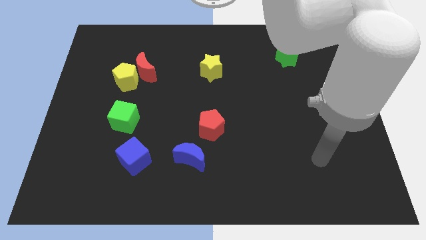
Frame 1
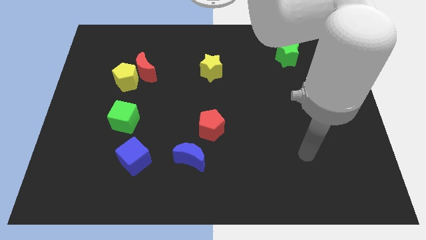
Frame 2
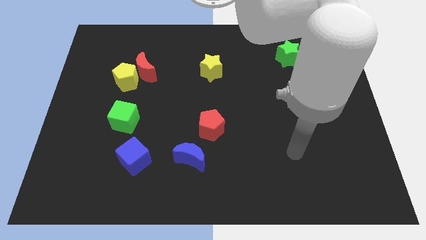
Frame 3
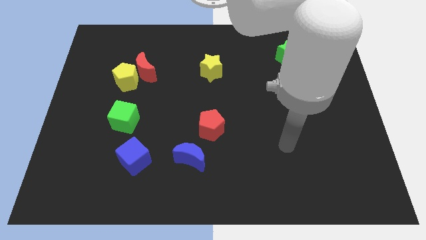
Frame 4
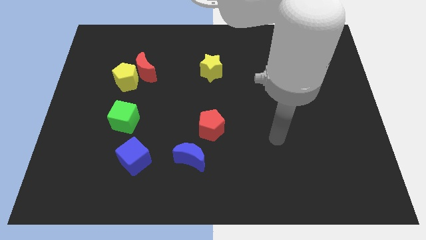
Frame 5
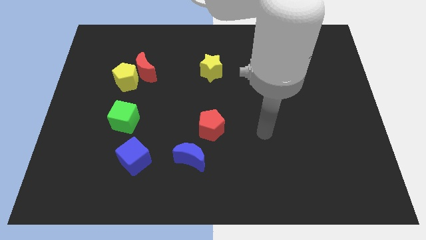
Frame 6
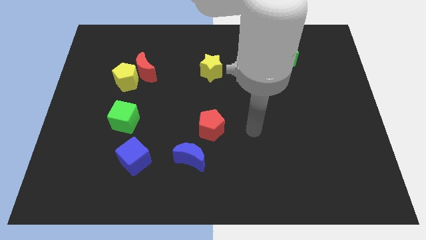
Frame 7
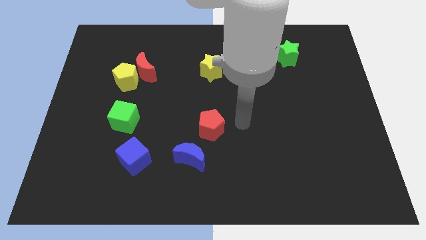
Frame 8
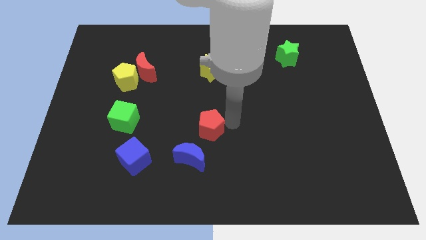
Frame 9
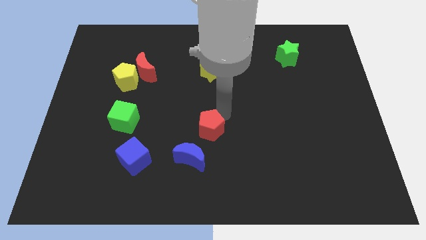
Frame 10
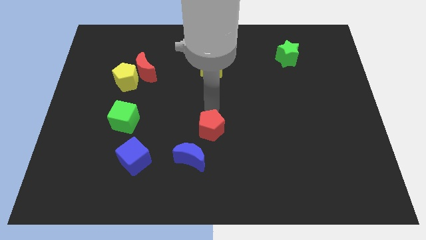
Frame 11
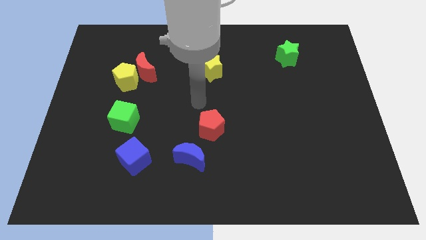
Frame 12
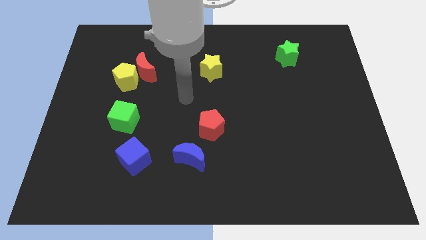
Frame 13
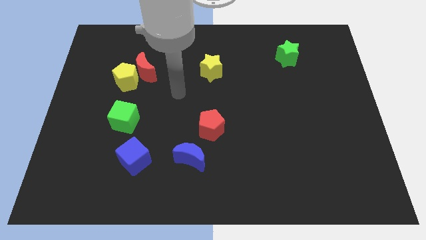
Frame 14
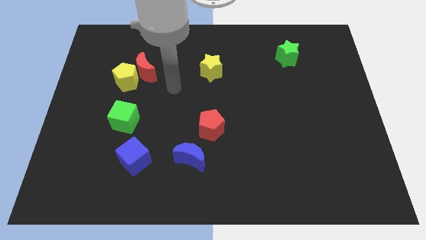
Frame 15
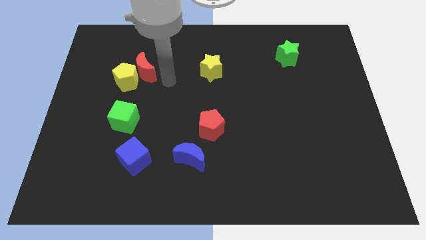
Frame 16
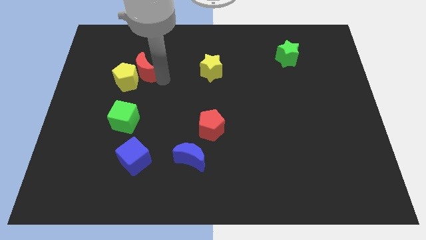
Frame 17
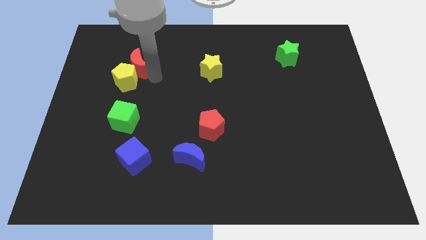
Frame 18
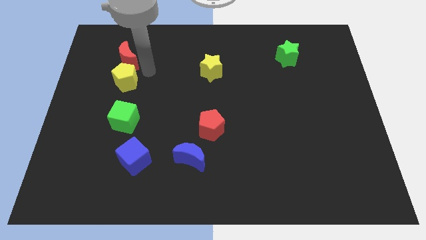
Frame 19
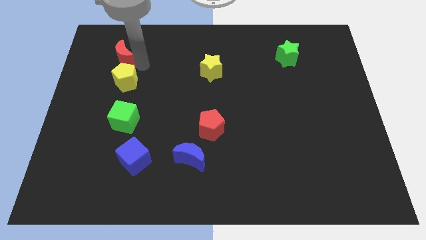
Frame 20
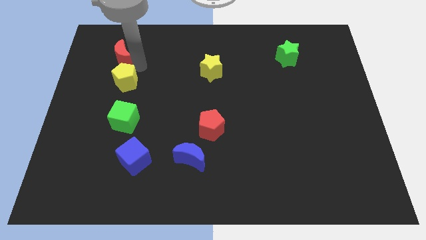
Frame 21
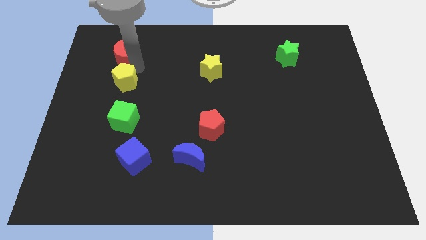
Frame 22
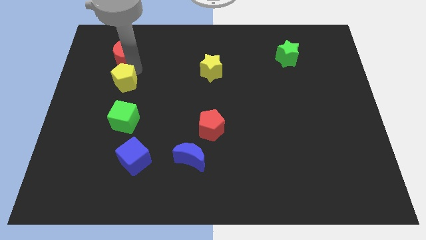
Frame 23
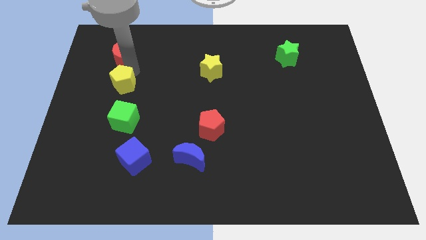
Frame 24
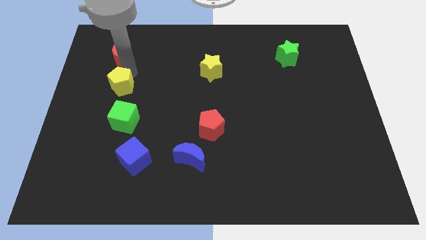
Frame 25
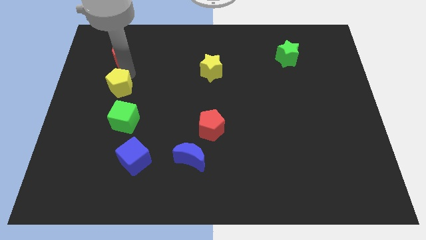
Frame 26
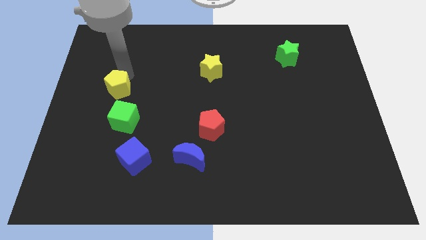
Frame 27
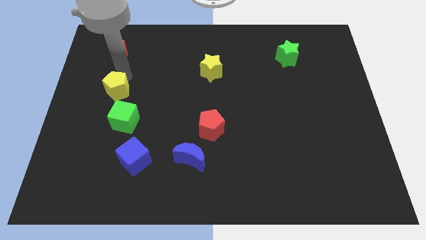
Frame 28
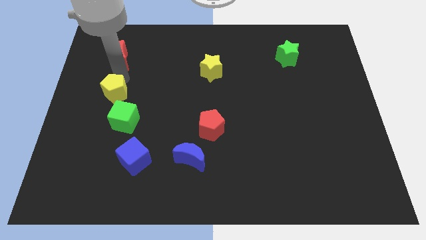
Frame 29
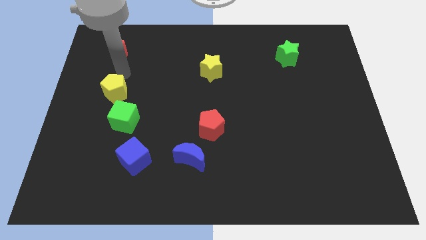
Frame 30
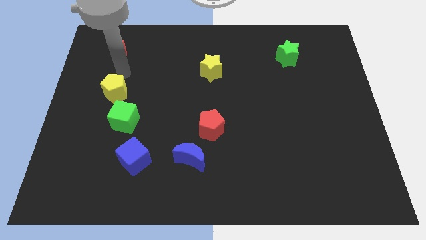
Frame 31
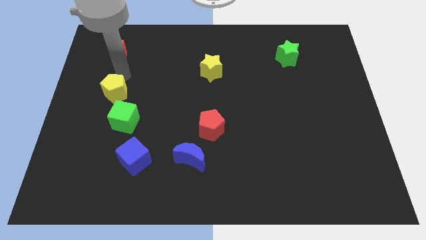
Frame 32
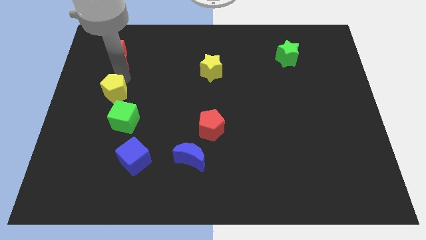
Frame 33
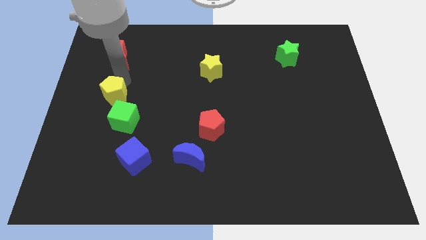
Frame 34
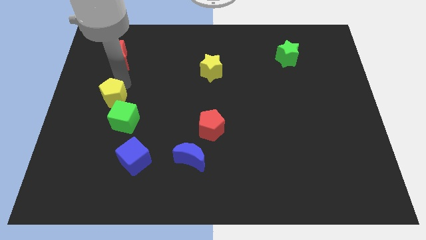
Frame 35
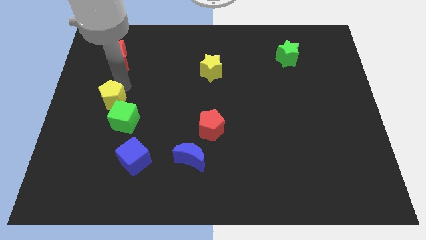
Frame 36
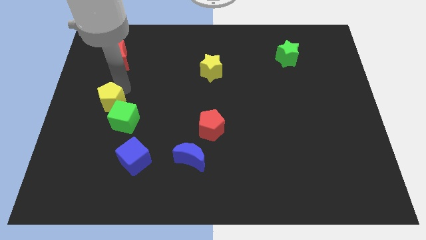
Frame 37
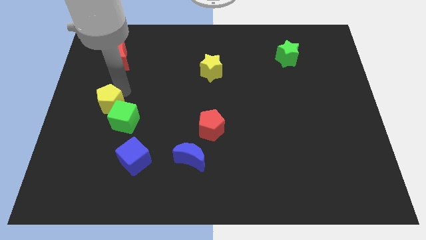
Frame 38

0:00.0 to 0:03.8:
push the yellow pentagon downwards a bit

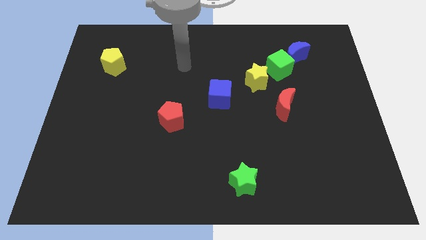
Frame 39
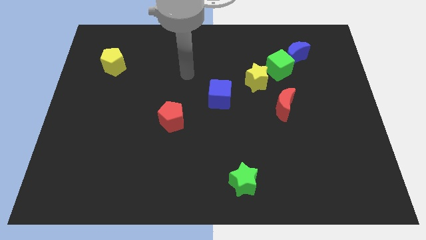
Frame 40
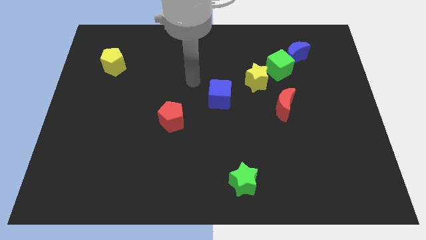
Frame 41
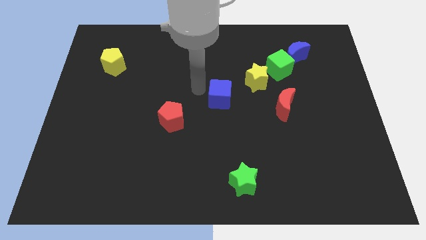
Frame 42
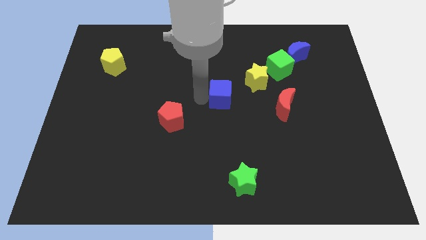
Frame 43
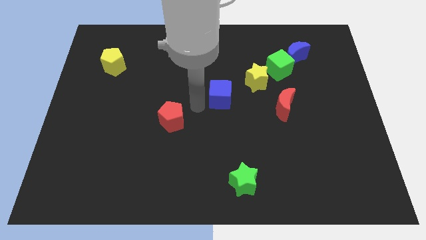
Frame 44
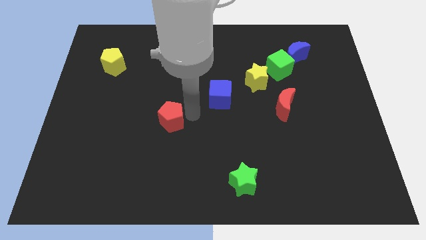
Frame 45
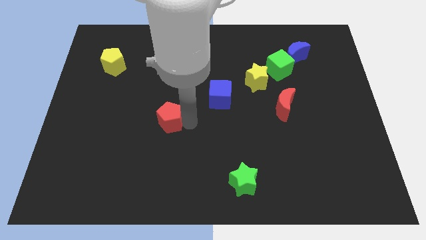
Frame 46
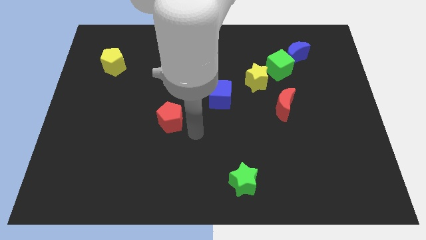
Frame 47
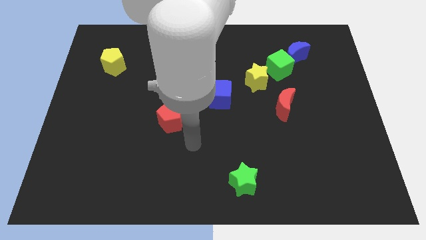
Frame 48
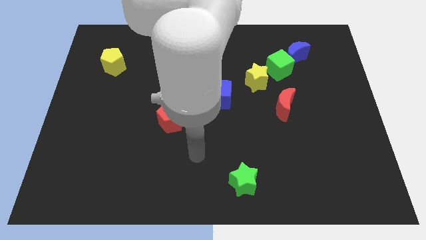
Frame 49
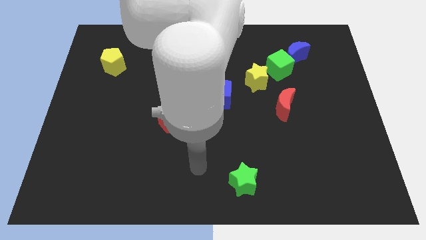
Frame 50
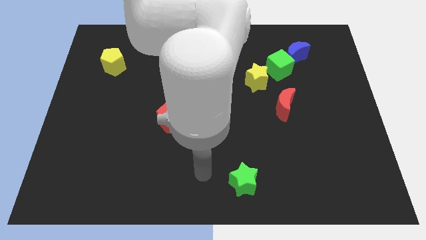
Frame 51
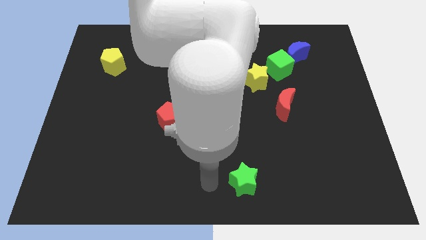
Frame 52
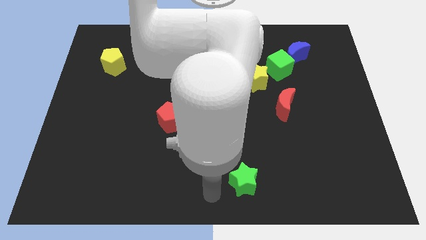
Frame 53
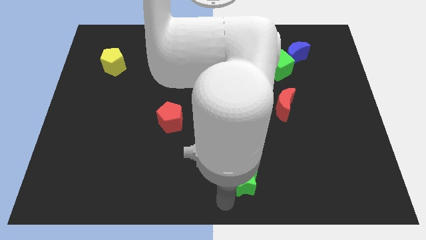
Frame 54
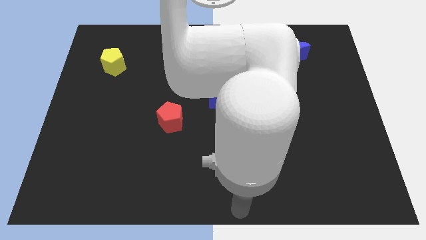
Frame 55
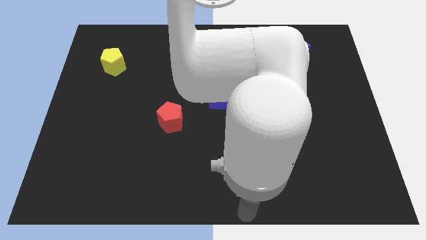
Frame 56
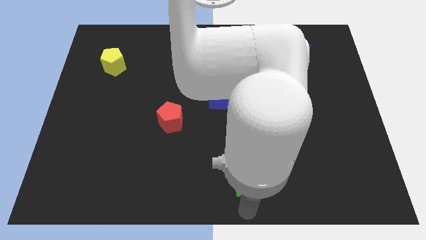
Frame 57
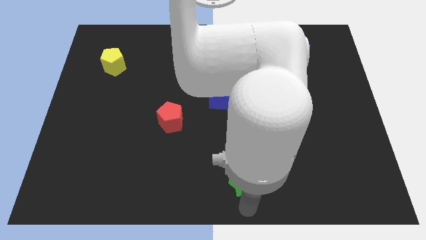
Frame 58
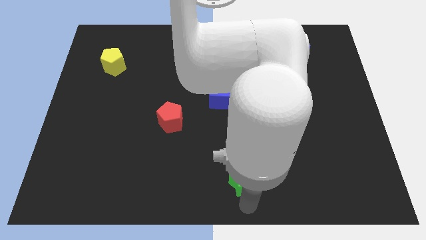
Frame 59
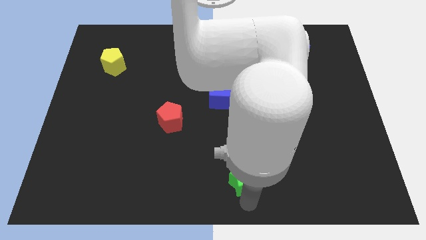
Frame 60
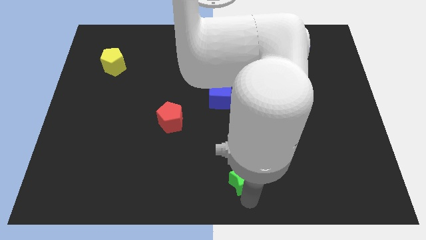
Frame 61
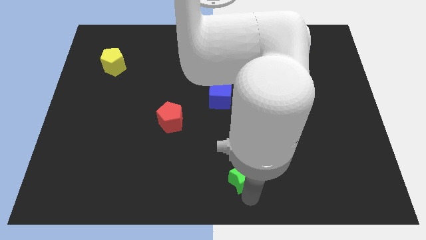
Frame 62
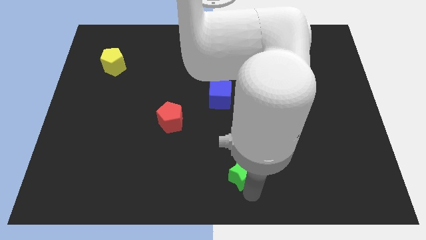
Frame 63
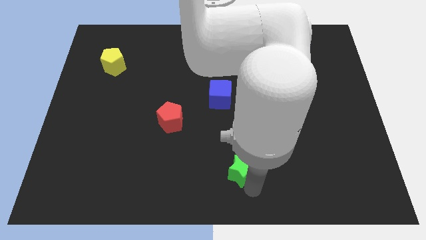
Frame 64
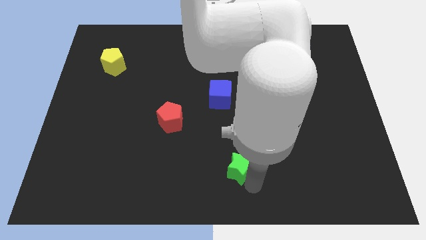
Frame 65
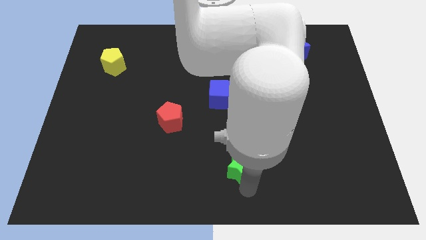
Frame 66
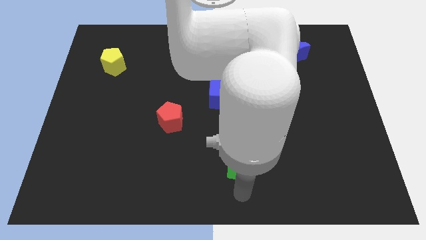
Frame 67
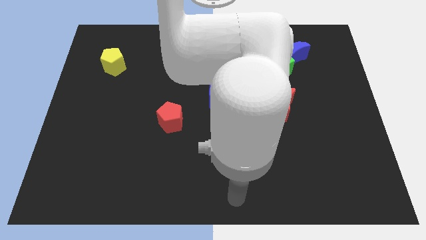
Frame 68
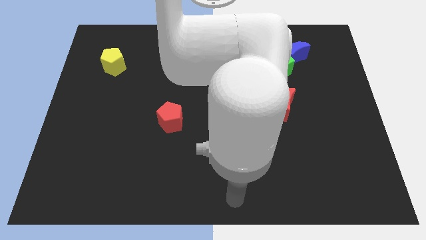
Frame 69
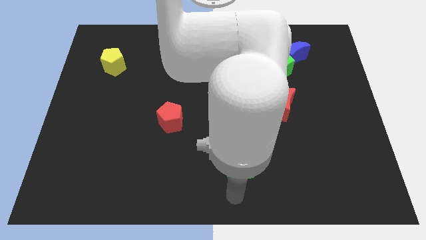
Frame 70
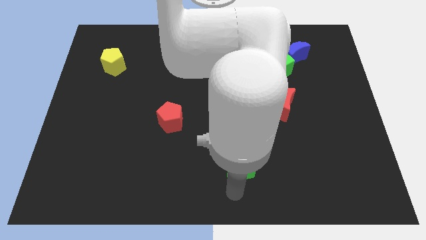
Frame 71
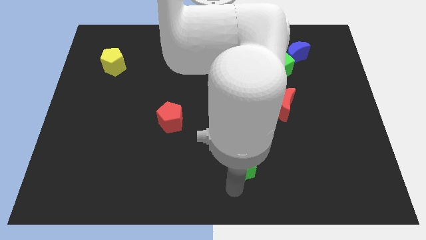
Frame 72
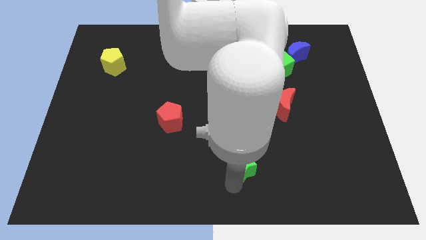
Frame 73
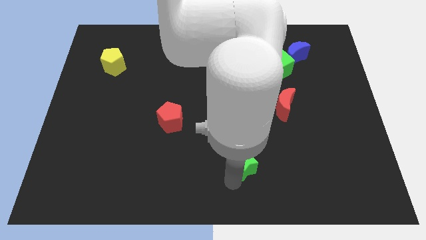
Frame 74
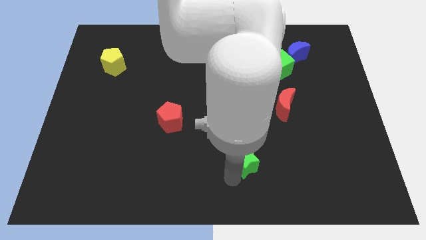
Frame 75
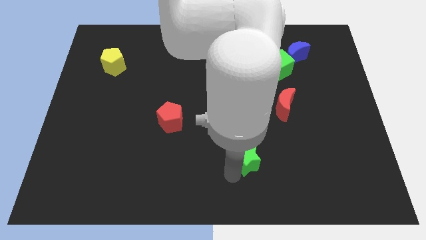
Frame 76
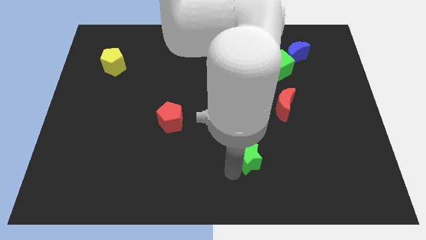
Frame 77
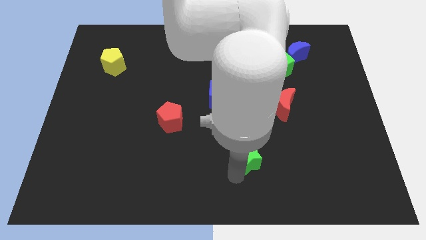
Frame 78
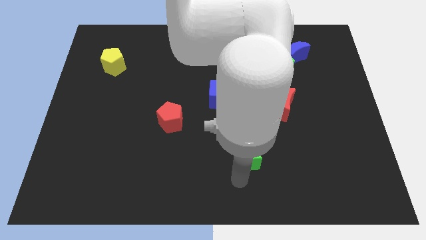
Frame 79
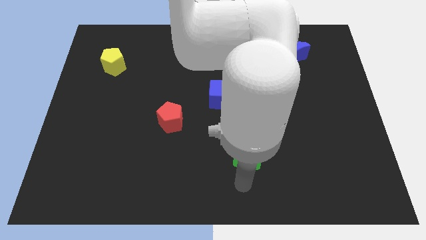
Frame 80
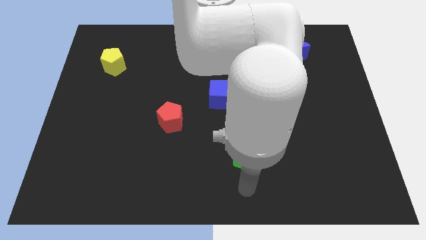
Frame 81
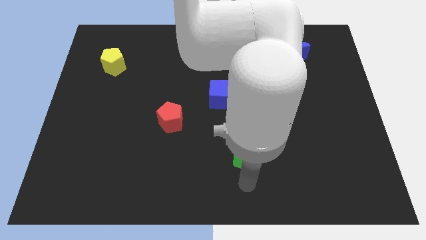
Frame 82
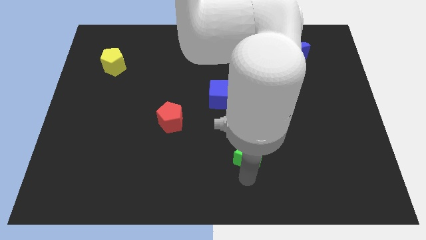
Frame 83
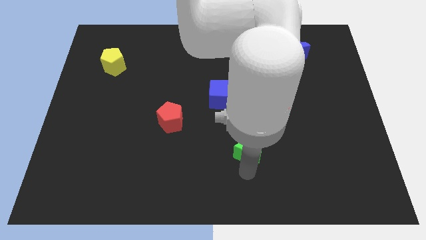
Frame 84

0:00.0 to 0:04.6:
move the green star a bit up
